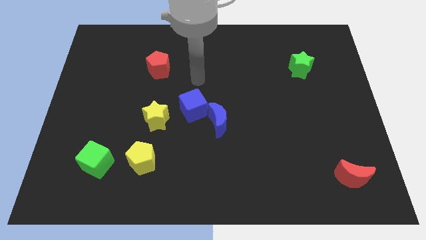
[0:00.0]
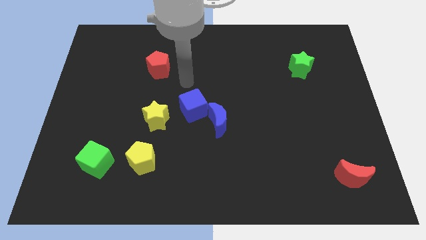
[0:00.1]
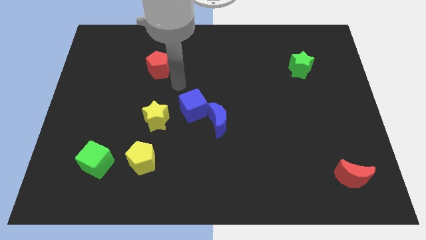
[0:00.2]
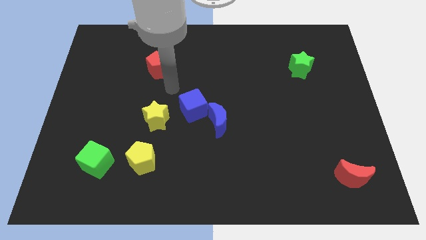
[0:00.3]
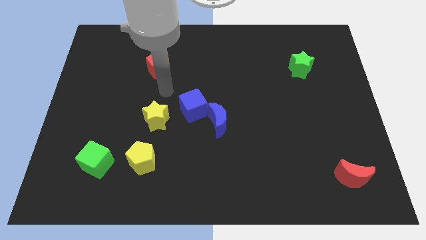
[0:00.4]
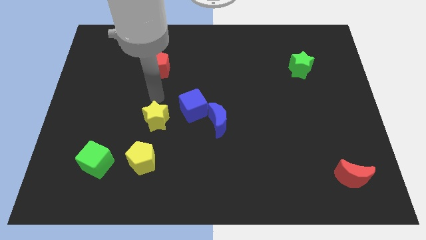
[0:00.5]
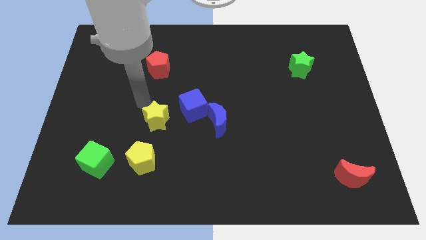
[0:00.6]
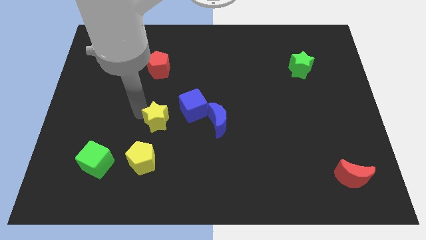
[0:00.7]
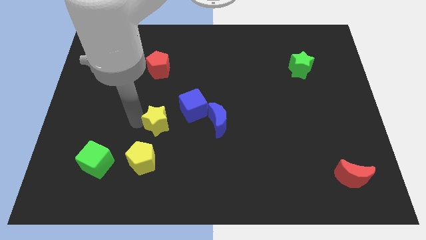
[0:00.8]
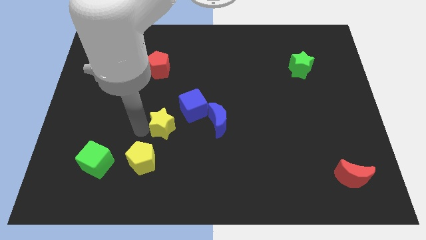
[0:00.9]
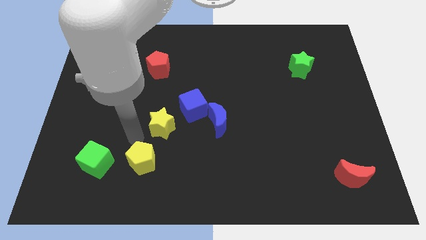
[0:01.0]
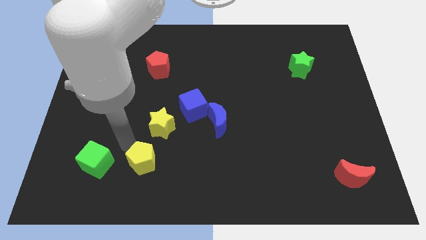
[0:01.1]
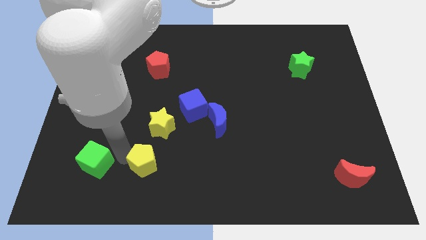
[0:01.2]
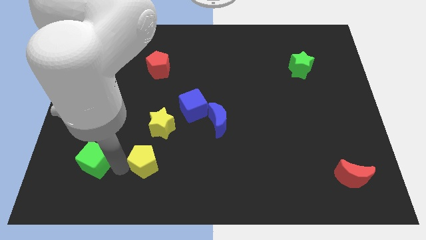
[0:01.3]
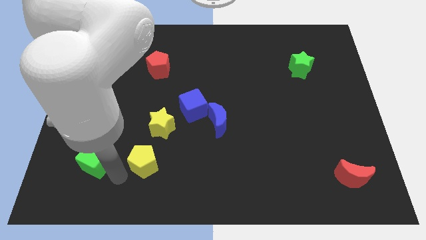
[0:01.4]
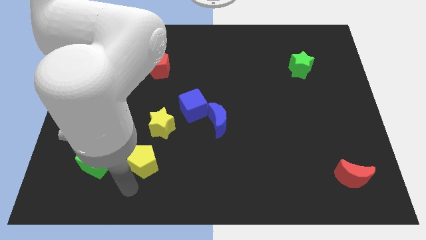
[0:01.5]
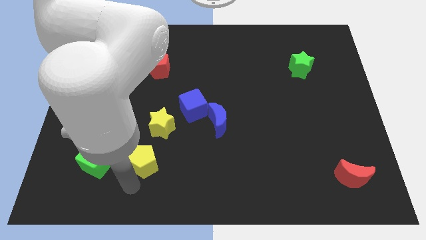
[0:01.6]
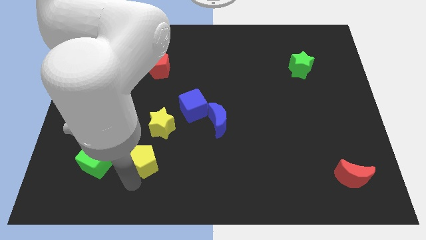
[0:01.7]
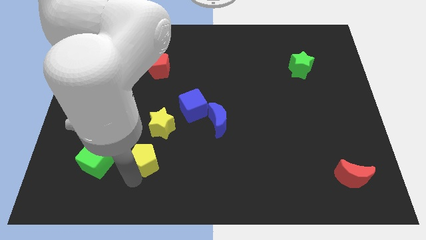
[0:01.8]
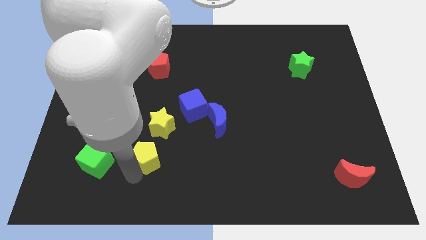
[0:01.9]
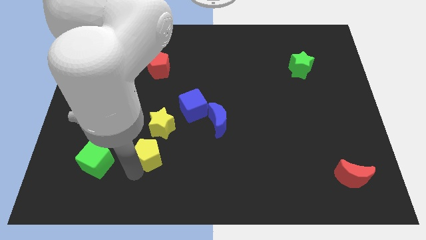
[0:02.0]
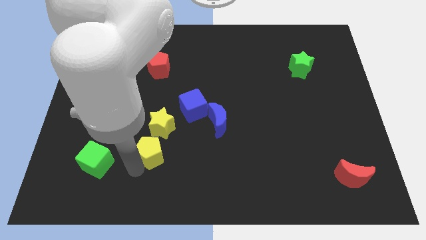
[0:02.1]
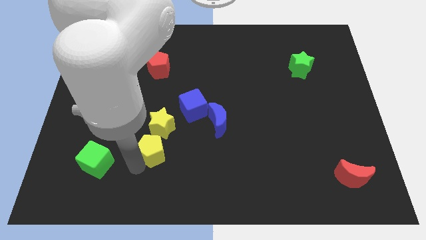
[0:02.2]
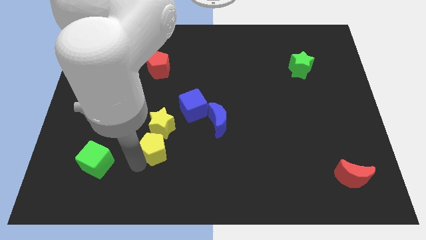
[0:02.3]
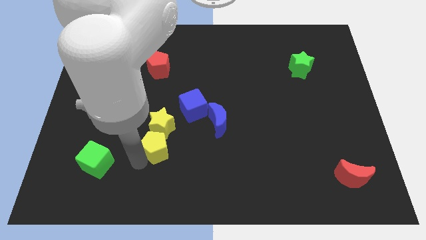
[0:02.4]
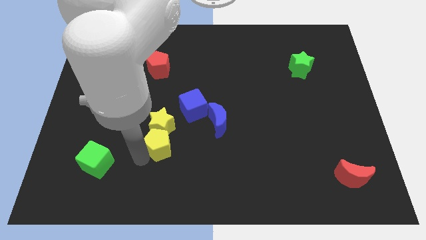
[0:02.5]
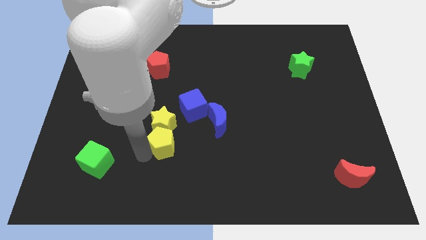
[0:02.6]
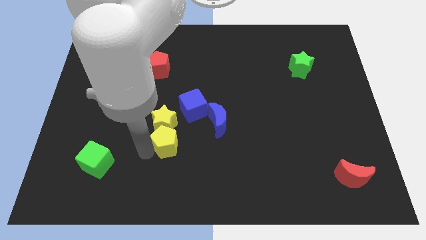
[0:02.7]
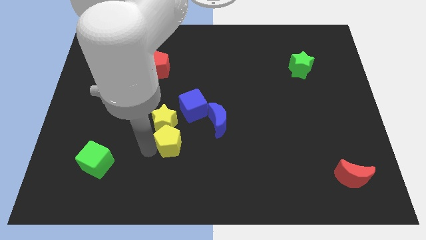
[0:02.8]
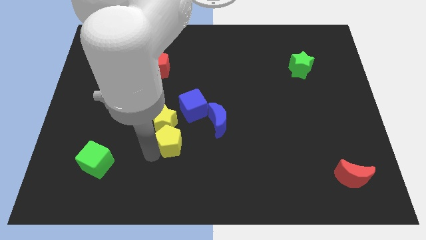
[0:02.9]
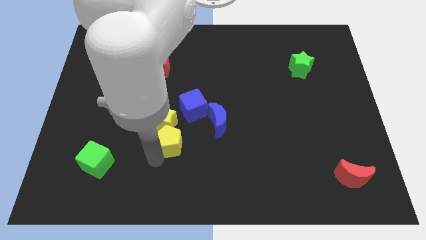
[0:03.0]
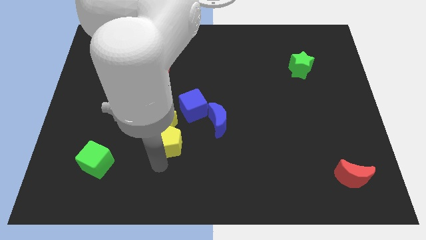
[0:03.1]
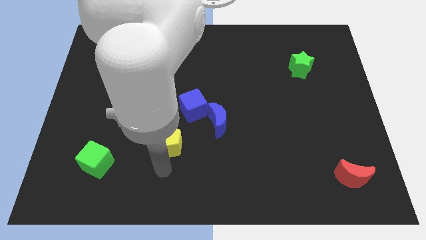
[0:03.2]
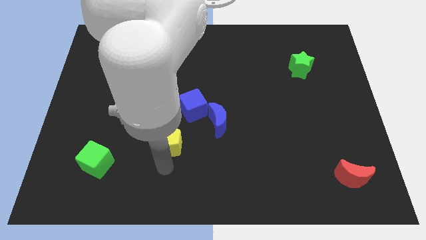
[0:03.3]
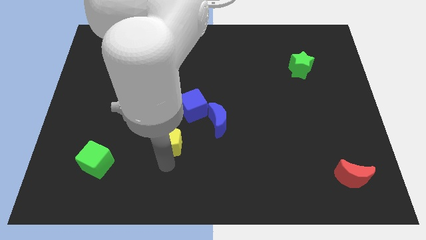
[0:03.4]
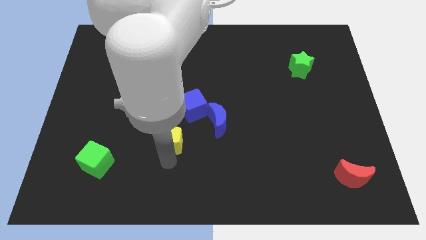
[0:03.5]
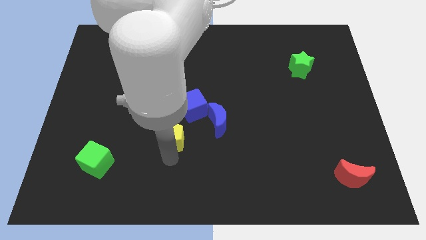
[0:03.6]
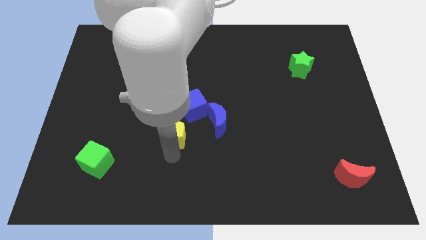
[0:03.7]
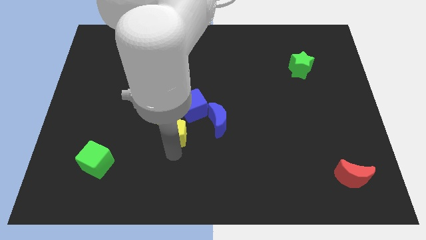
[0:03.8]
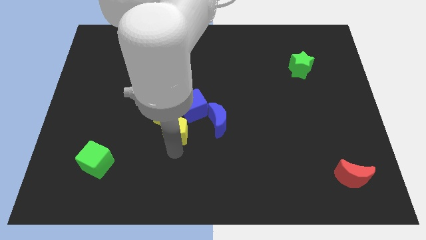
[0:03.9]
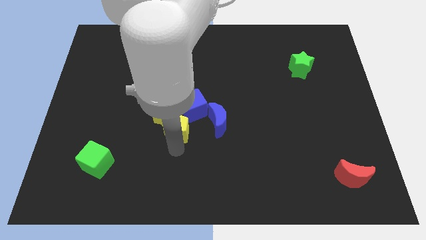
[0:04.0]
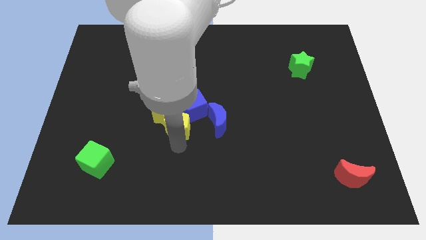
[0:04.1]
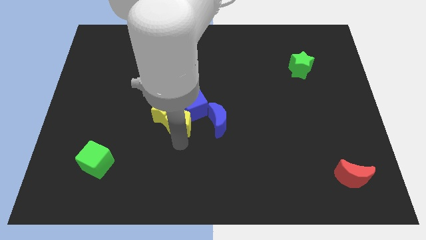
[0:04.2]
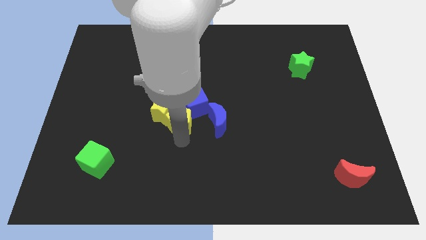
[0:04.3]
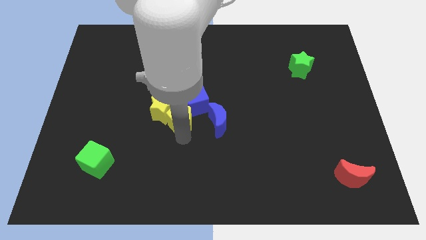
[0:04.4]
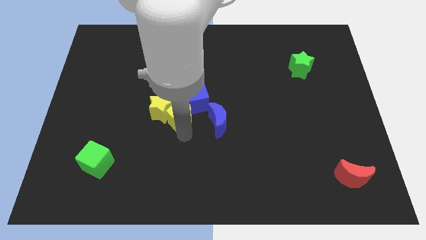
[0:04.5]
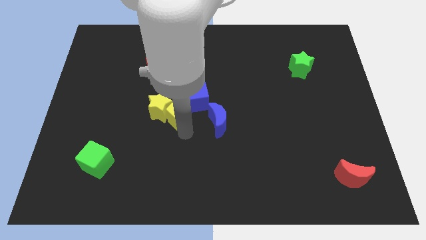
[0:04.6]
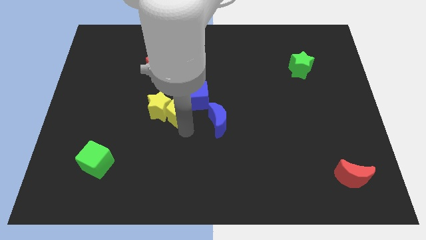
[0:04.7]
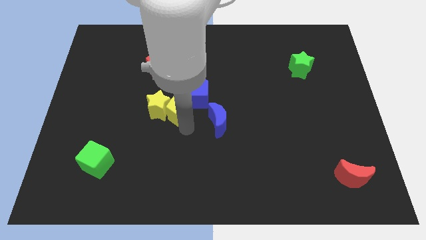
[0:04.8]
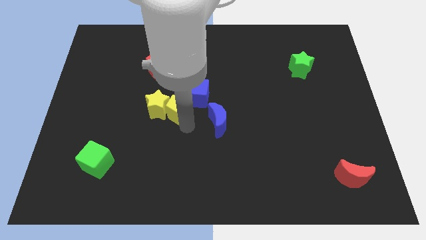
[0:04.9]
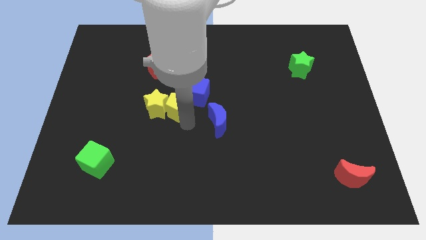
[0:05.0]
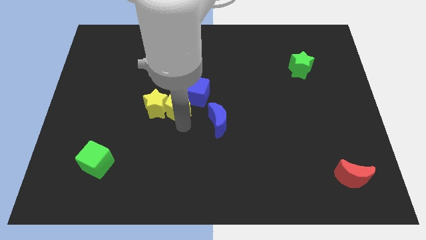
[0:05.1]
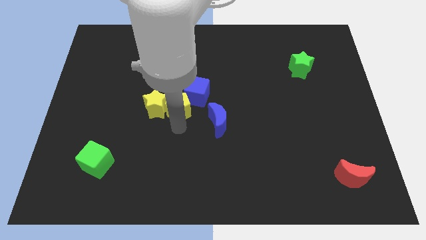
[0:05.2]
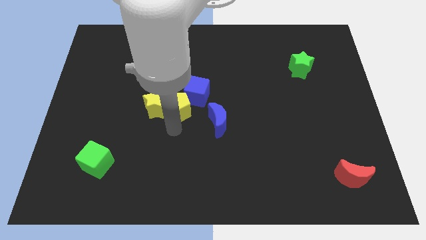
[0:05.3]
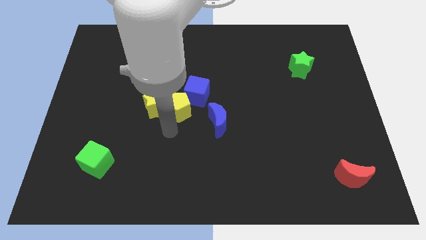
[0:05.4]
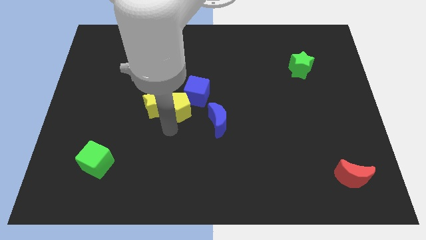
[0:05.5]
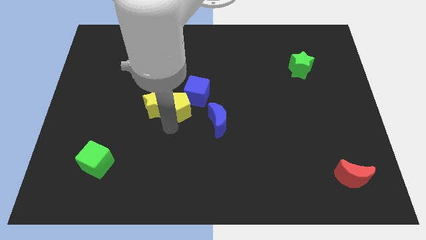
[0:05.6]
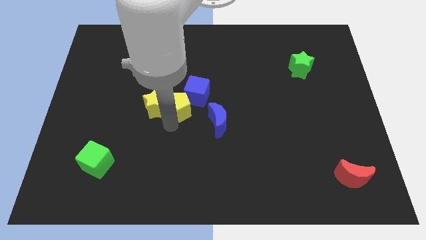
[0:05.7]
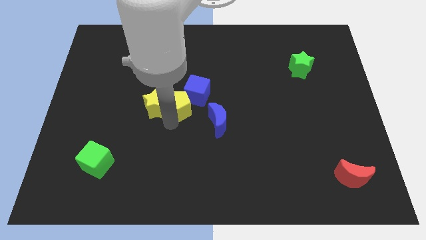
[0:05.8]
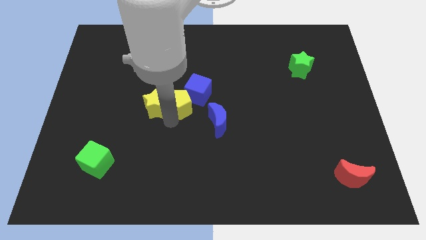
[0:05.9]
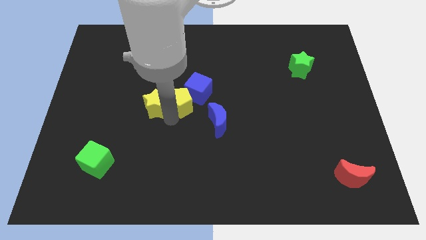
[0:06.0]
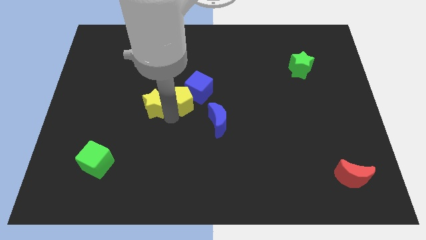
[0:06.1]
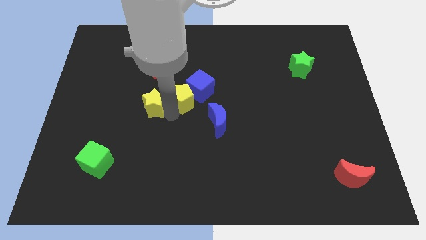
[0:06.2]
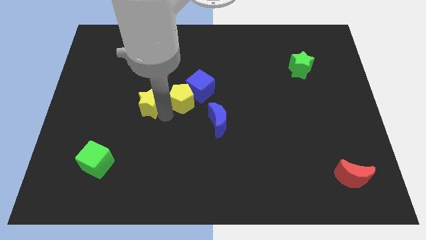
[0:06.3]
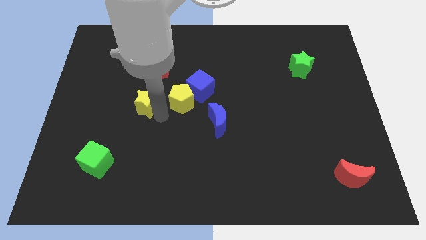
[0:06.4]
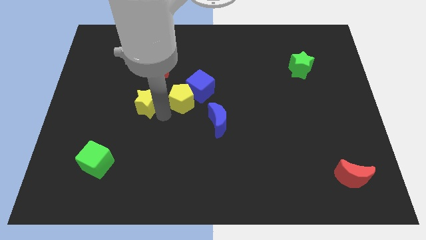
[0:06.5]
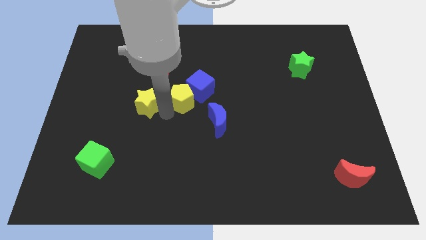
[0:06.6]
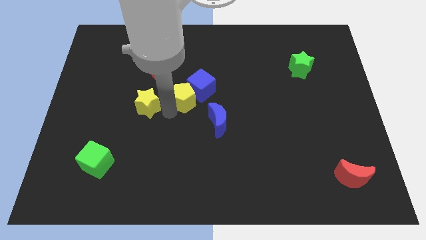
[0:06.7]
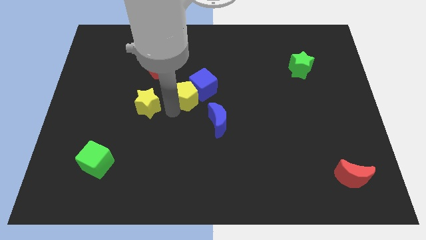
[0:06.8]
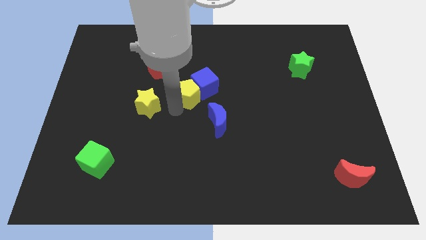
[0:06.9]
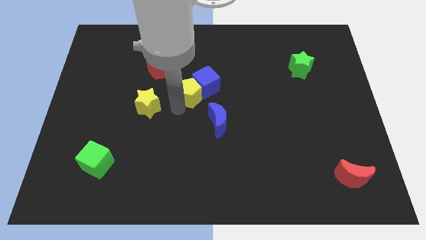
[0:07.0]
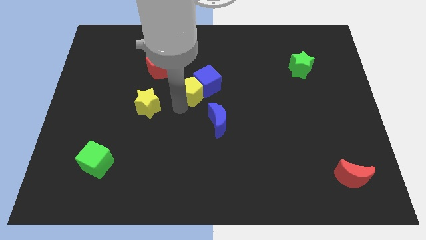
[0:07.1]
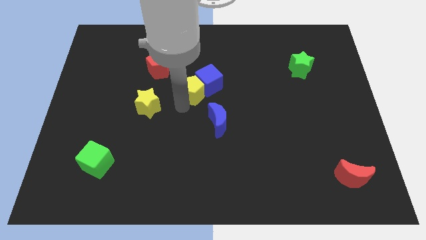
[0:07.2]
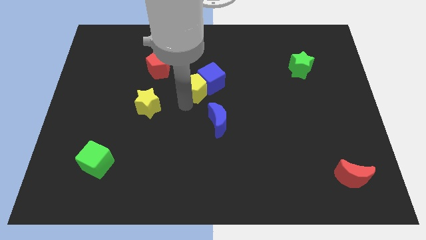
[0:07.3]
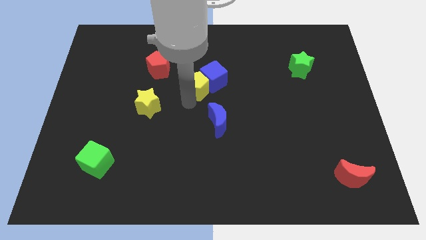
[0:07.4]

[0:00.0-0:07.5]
push the yellow pentagon up and to the right diagonally

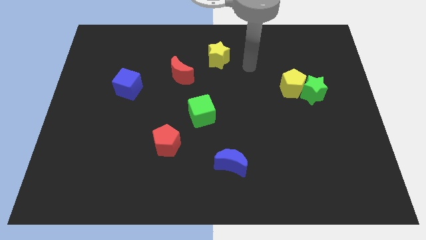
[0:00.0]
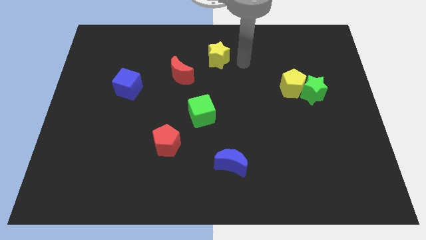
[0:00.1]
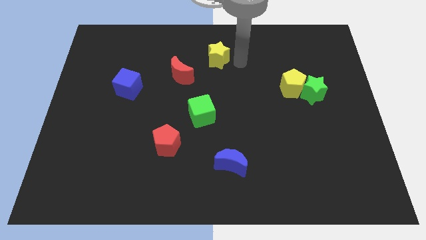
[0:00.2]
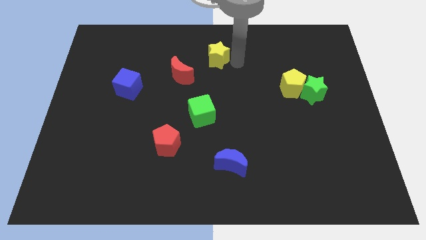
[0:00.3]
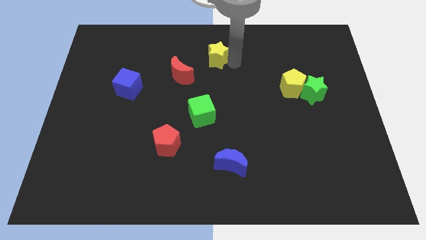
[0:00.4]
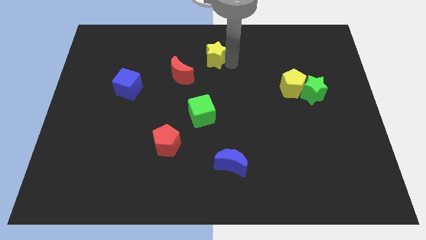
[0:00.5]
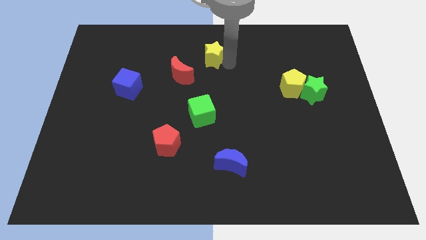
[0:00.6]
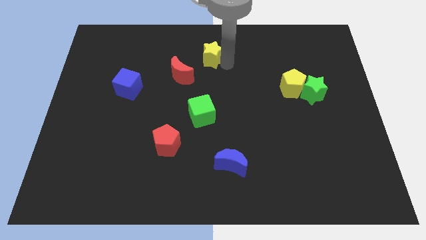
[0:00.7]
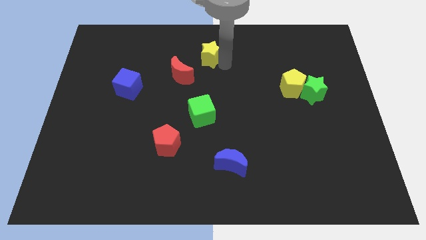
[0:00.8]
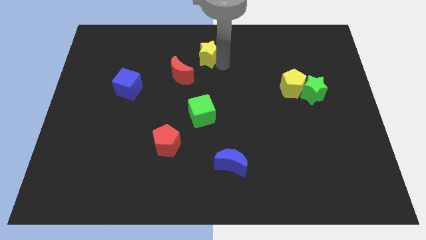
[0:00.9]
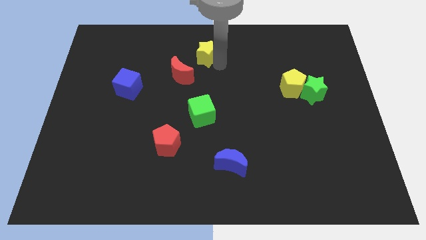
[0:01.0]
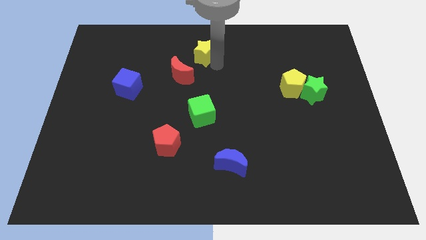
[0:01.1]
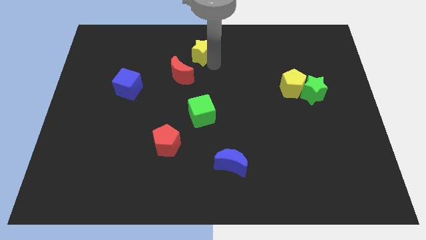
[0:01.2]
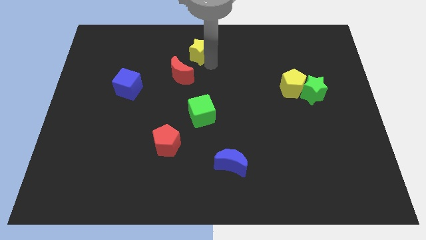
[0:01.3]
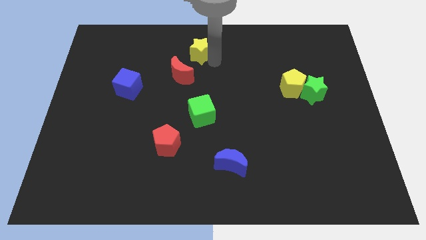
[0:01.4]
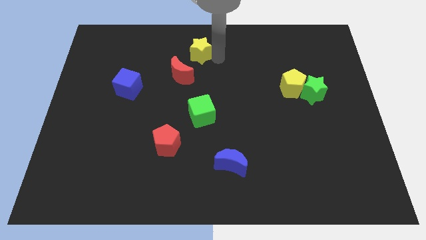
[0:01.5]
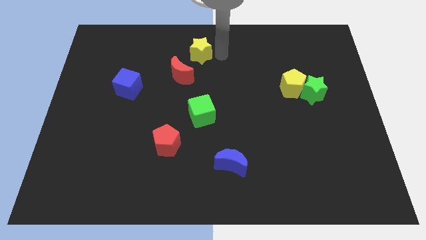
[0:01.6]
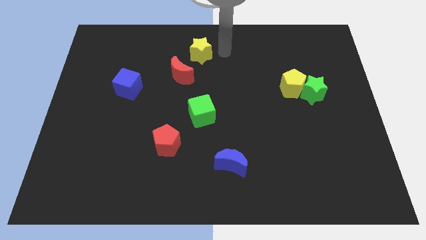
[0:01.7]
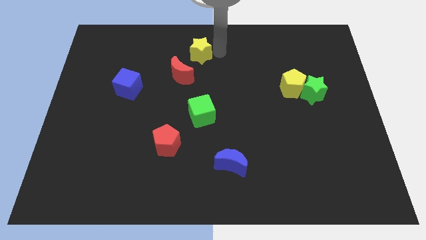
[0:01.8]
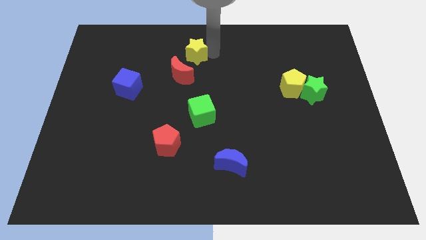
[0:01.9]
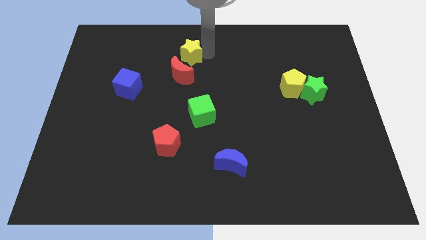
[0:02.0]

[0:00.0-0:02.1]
slide the yellow star left a bit
